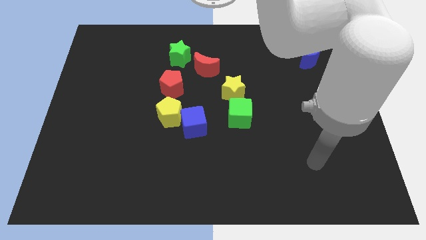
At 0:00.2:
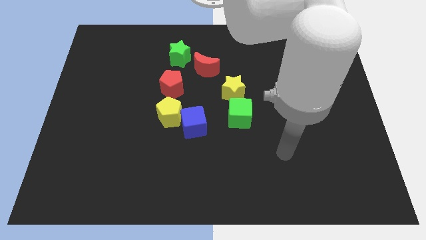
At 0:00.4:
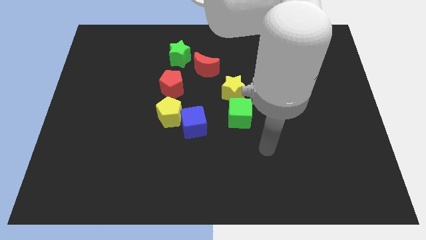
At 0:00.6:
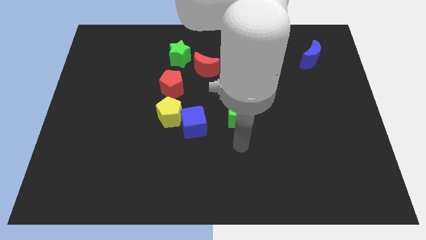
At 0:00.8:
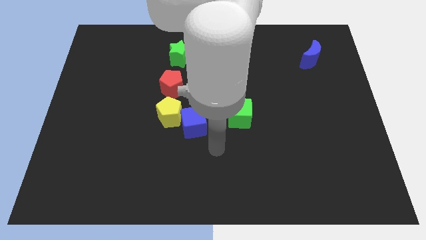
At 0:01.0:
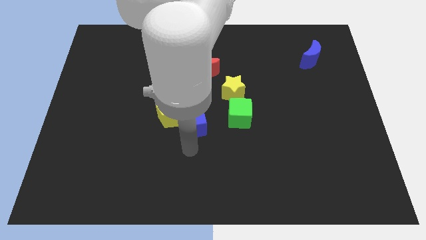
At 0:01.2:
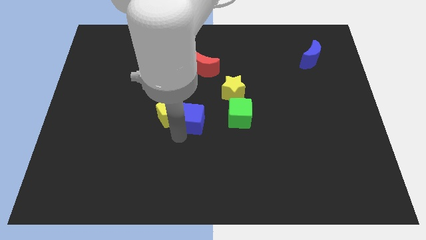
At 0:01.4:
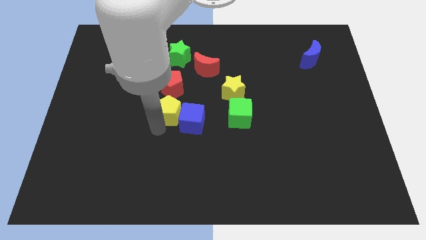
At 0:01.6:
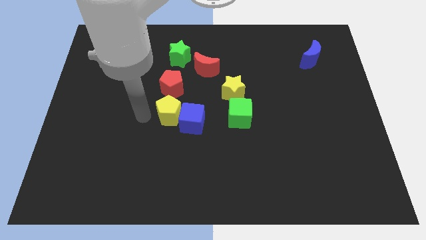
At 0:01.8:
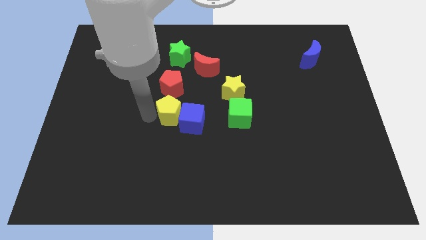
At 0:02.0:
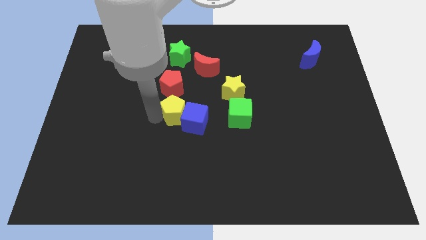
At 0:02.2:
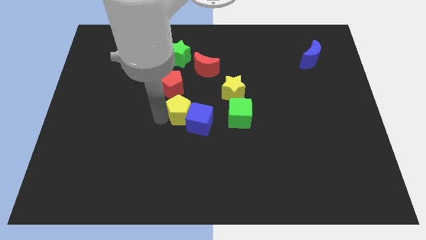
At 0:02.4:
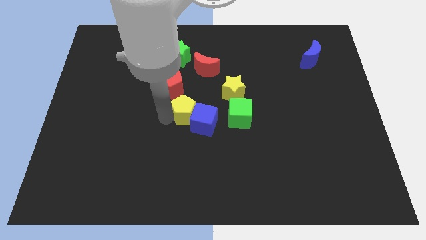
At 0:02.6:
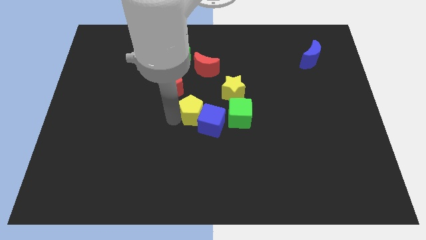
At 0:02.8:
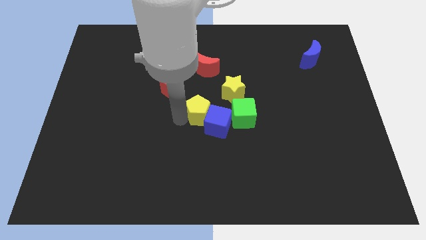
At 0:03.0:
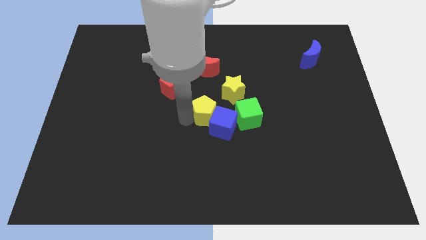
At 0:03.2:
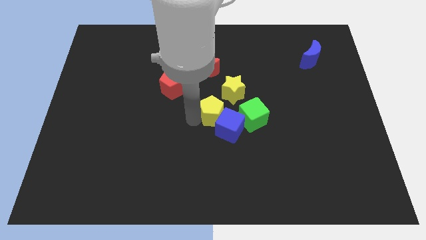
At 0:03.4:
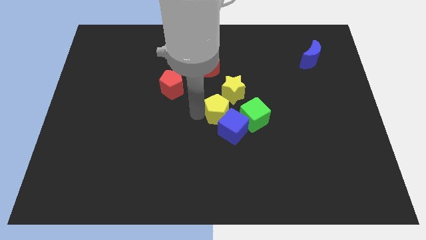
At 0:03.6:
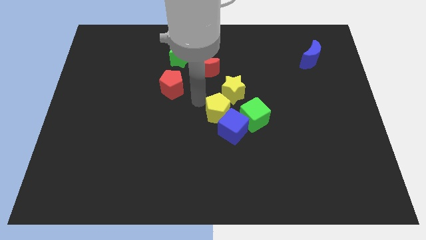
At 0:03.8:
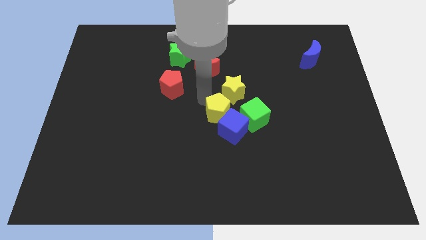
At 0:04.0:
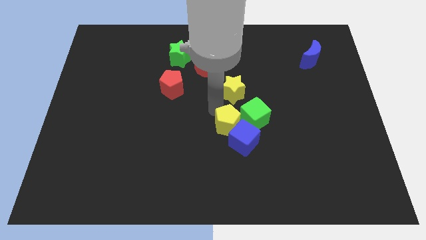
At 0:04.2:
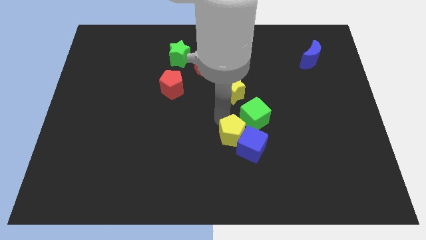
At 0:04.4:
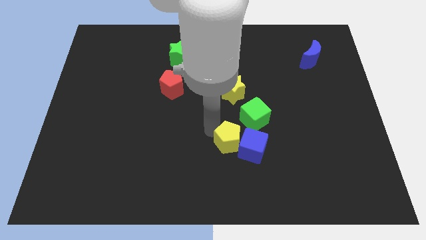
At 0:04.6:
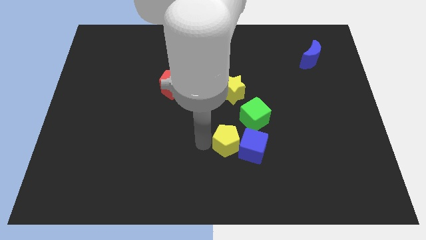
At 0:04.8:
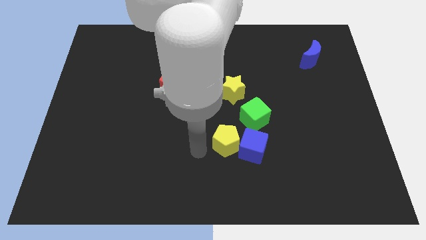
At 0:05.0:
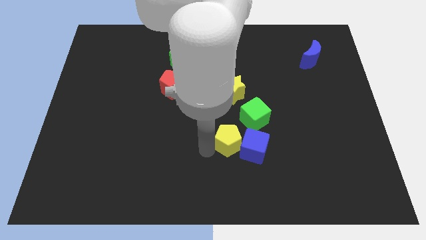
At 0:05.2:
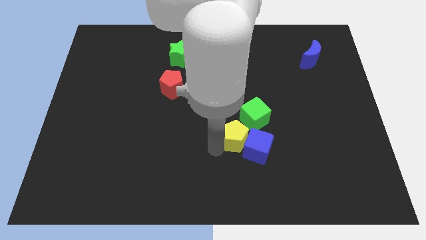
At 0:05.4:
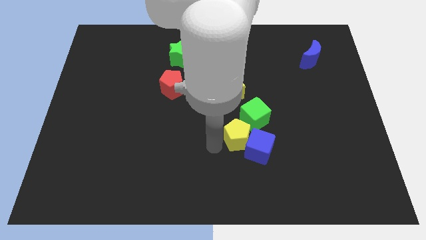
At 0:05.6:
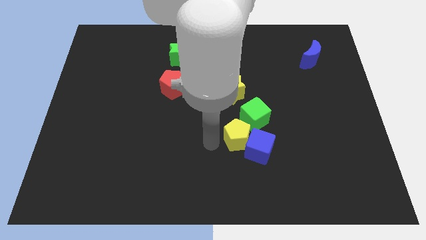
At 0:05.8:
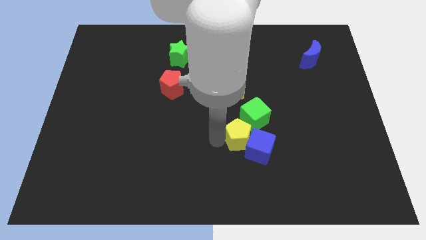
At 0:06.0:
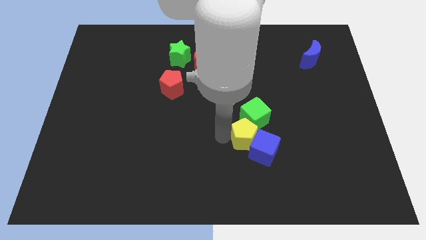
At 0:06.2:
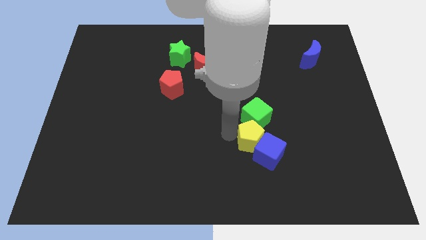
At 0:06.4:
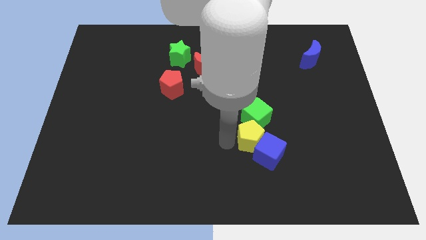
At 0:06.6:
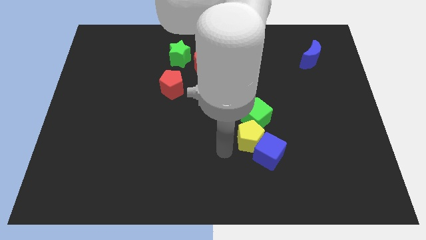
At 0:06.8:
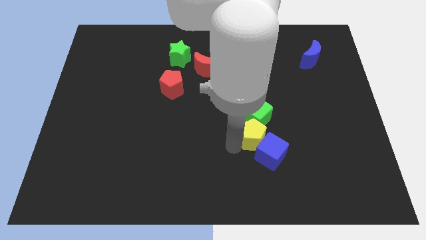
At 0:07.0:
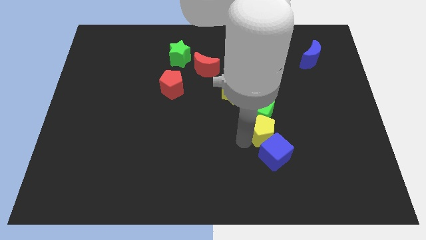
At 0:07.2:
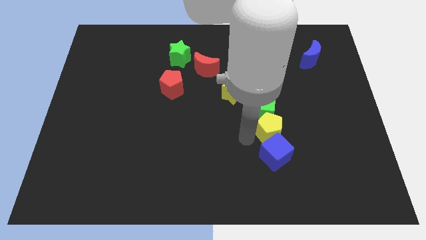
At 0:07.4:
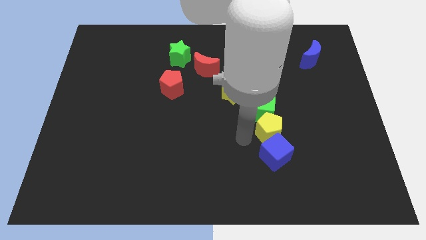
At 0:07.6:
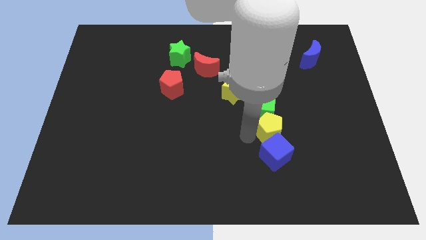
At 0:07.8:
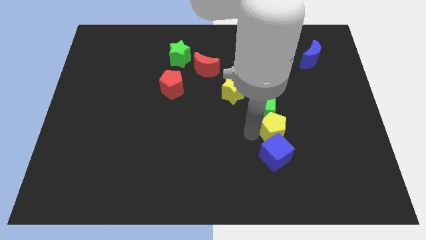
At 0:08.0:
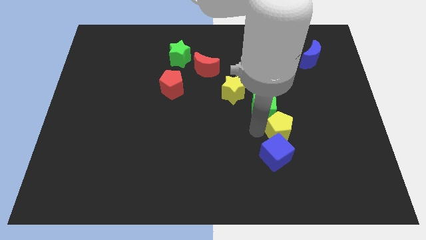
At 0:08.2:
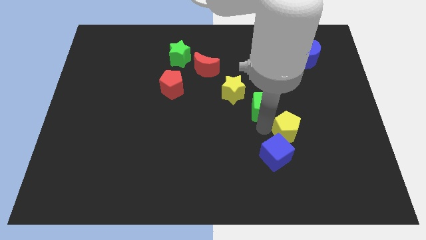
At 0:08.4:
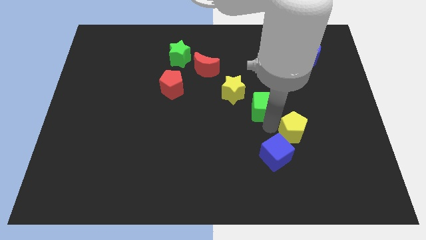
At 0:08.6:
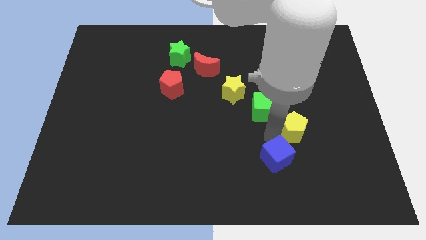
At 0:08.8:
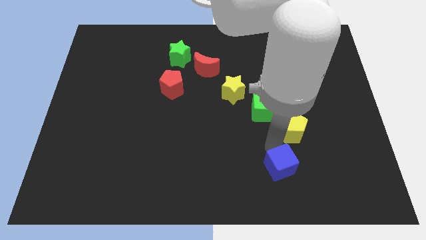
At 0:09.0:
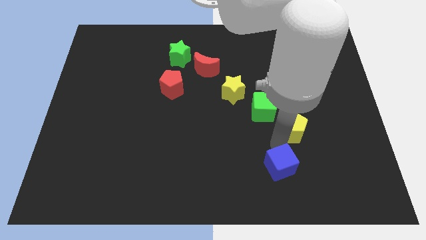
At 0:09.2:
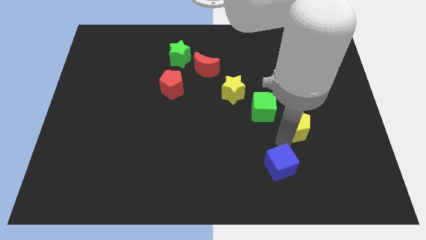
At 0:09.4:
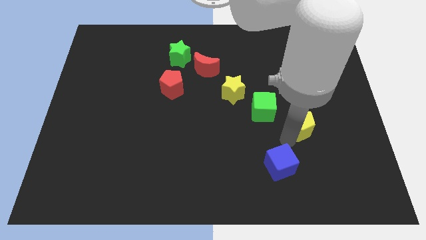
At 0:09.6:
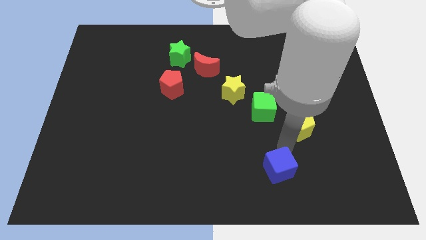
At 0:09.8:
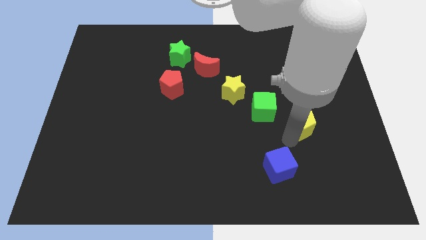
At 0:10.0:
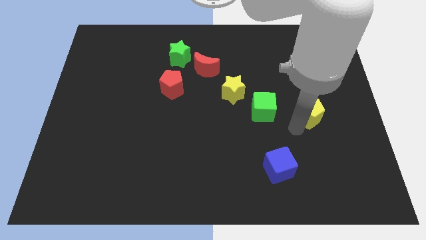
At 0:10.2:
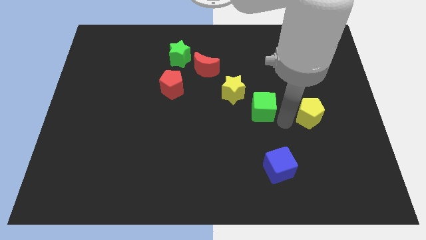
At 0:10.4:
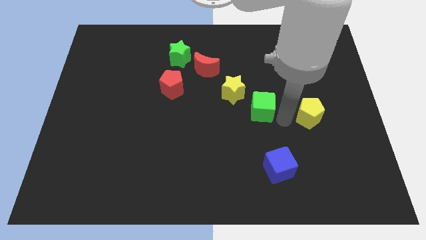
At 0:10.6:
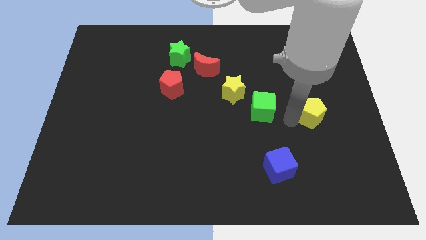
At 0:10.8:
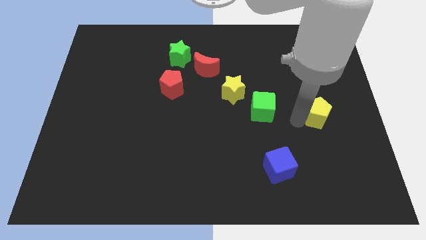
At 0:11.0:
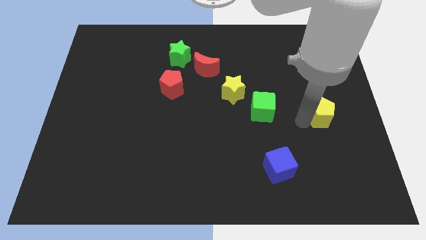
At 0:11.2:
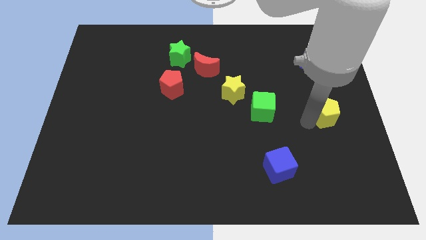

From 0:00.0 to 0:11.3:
push the yellow pentagon to the right side of the board
